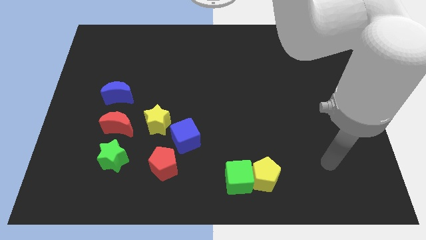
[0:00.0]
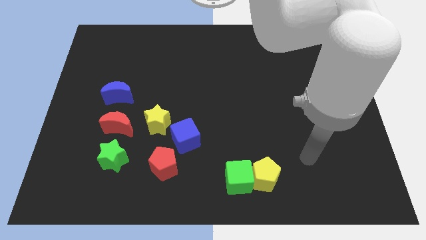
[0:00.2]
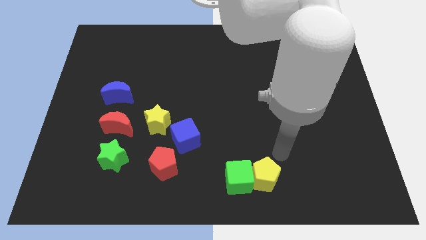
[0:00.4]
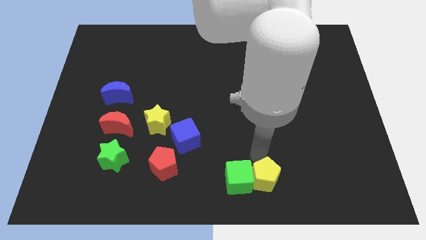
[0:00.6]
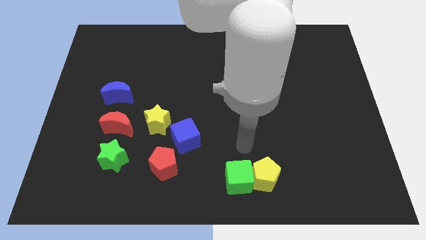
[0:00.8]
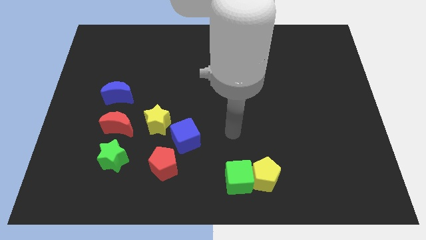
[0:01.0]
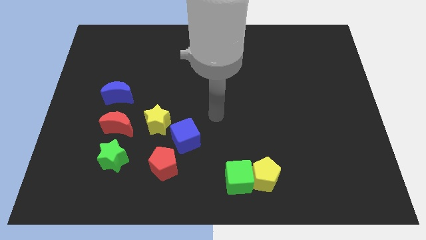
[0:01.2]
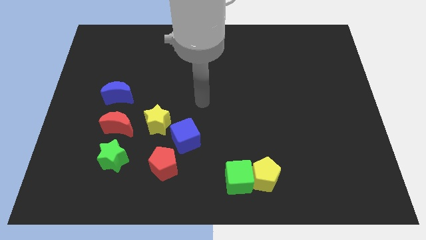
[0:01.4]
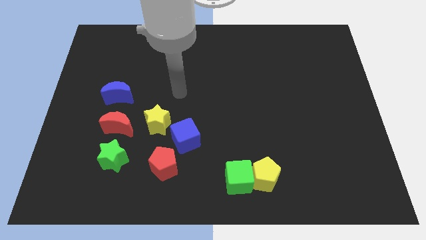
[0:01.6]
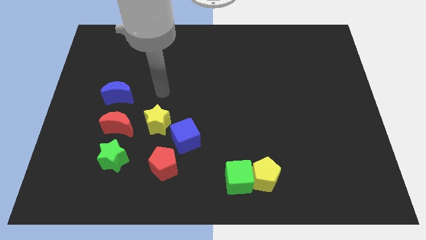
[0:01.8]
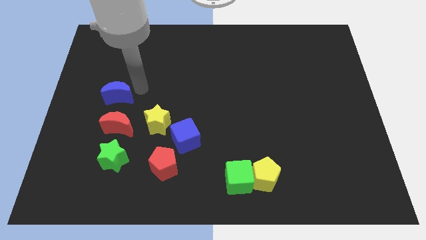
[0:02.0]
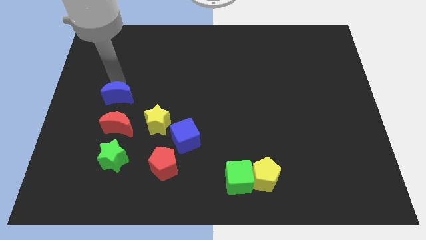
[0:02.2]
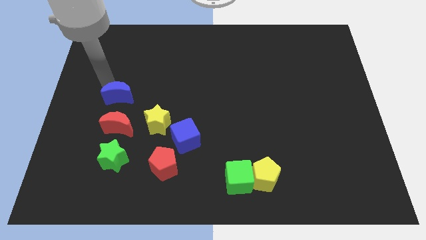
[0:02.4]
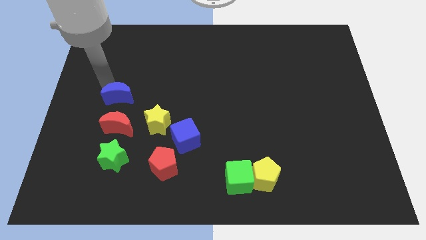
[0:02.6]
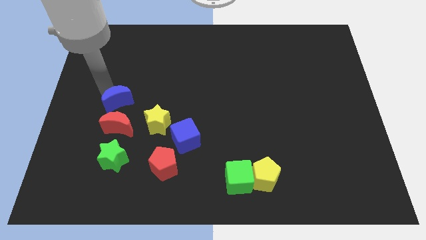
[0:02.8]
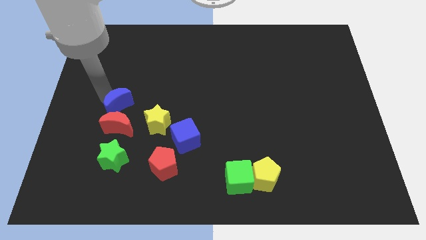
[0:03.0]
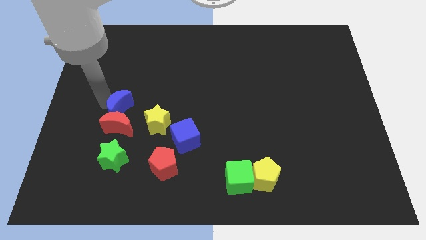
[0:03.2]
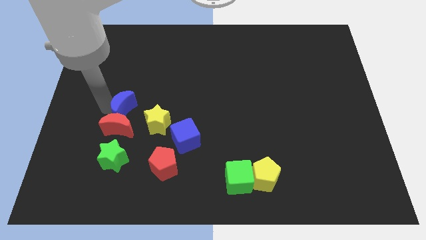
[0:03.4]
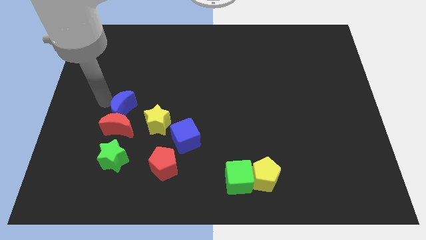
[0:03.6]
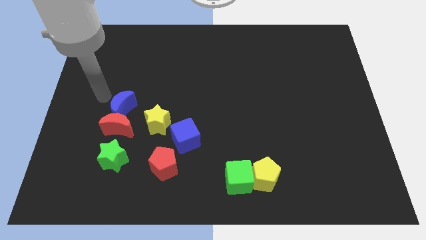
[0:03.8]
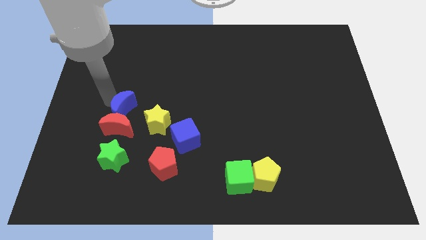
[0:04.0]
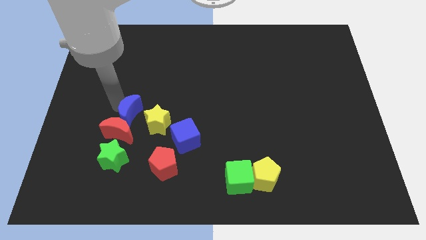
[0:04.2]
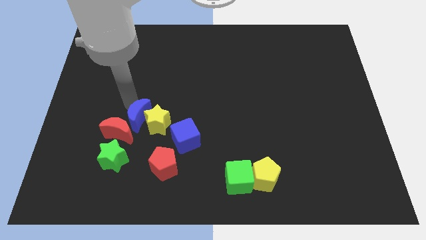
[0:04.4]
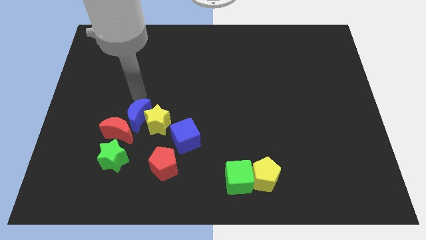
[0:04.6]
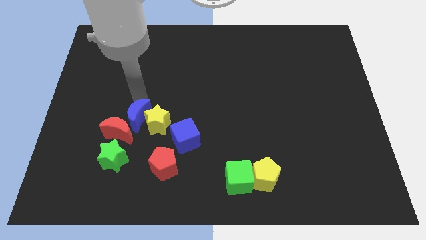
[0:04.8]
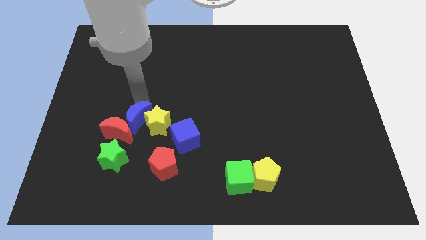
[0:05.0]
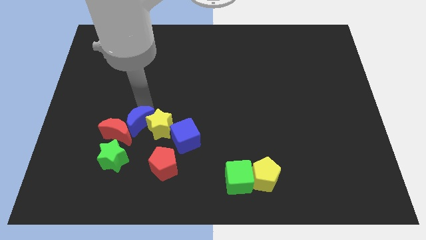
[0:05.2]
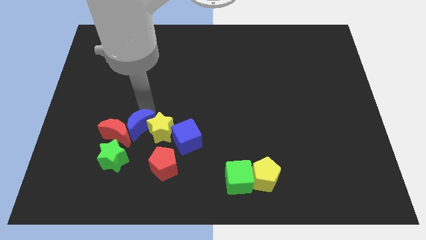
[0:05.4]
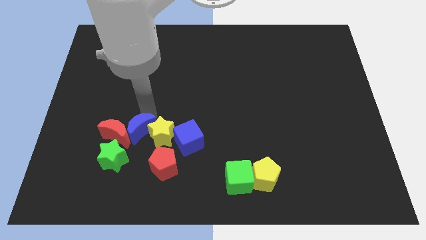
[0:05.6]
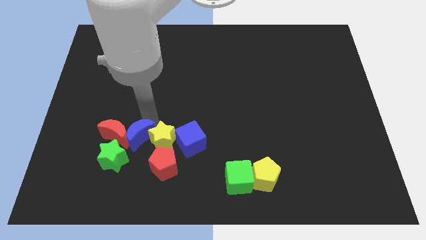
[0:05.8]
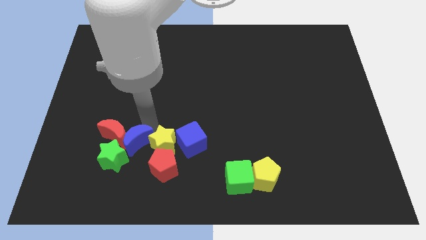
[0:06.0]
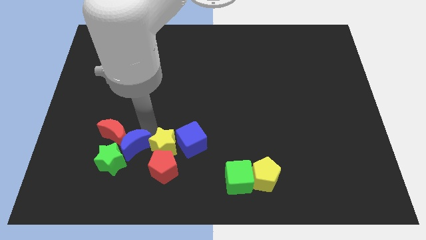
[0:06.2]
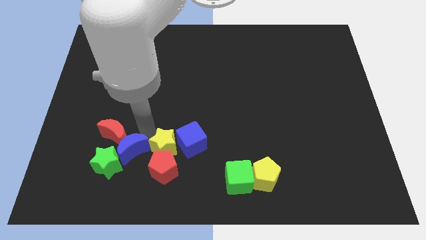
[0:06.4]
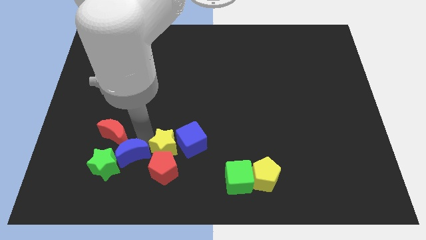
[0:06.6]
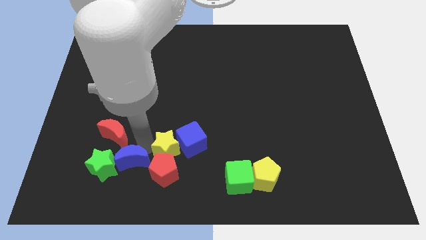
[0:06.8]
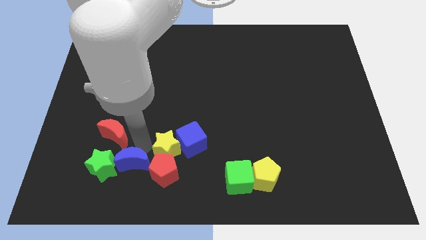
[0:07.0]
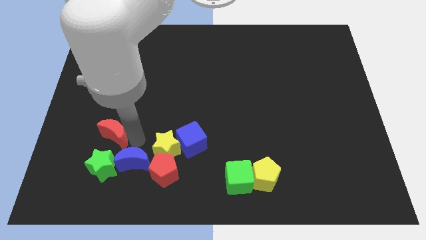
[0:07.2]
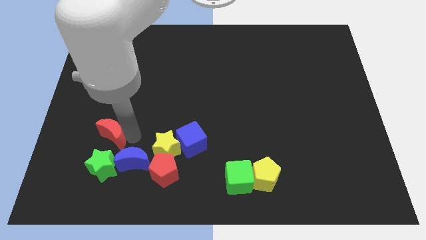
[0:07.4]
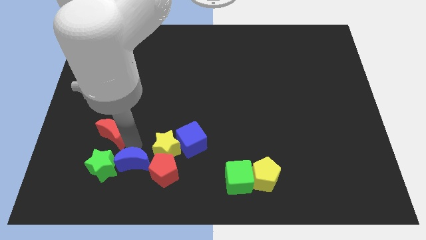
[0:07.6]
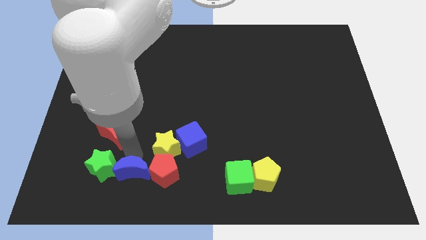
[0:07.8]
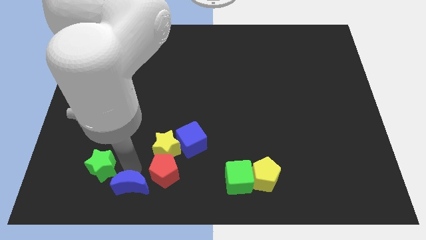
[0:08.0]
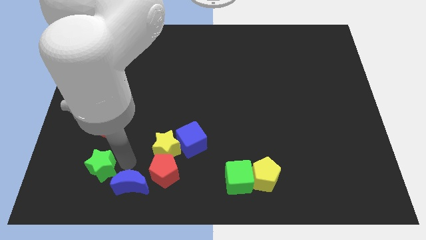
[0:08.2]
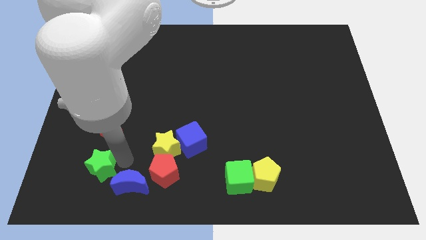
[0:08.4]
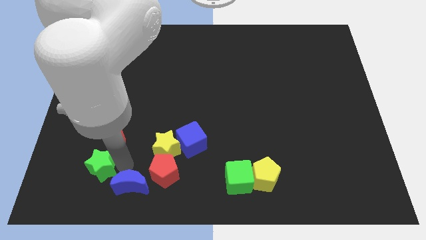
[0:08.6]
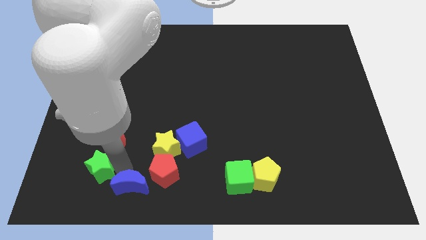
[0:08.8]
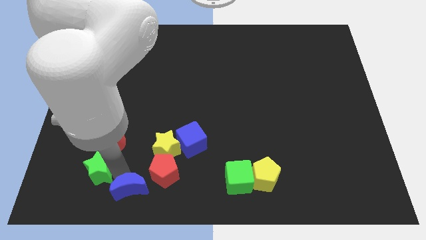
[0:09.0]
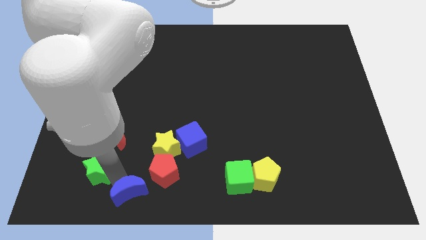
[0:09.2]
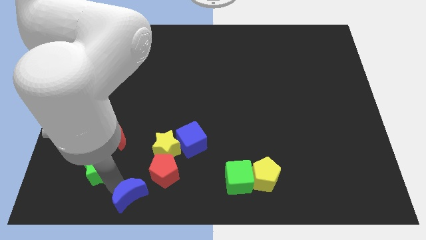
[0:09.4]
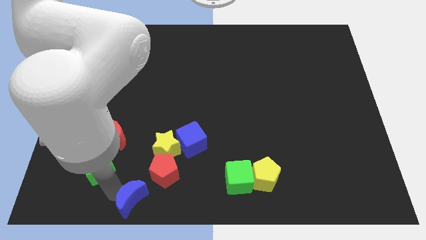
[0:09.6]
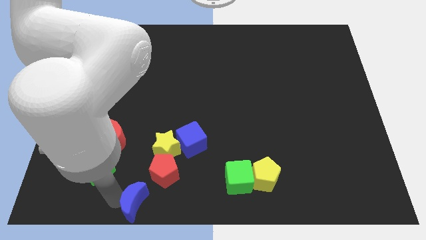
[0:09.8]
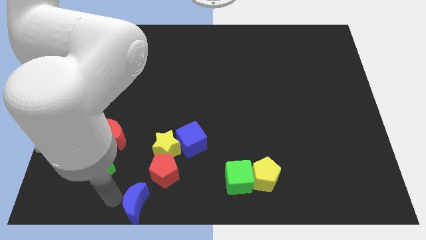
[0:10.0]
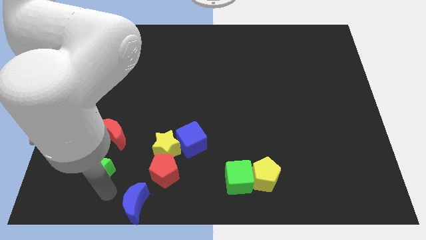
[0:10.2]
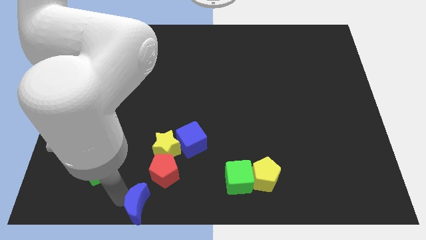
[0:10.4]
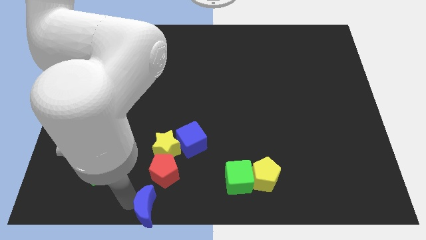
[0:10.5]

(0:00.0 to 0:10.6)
slide the blue moon to the bottom
